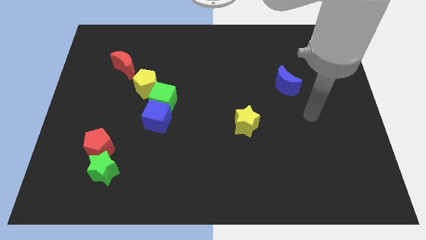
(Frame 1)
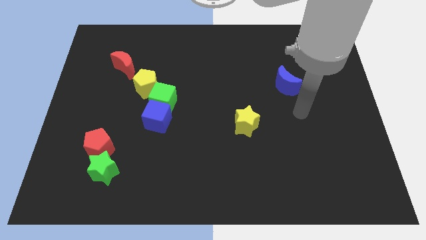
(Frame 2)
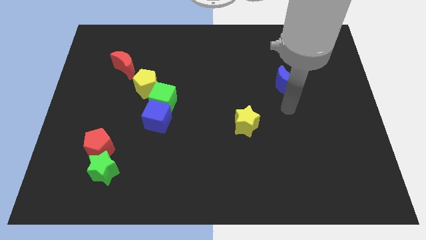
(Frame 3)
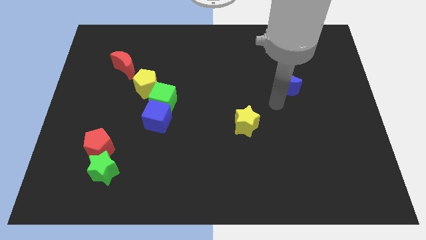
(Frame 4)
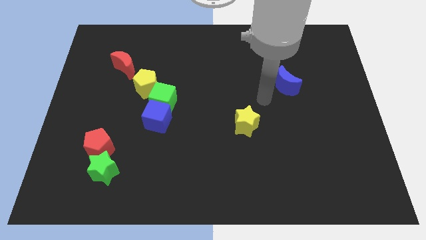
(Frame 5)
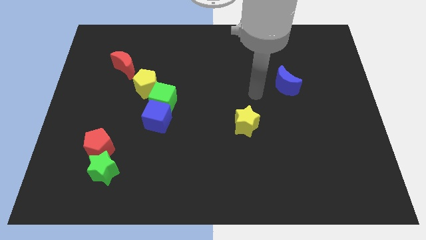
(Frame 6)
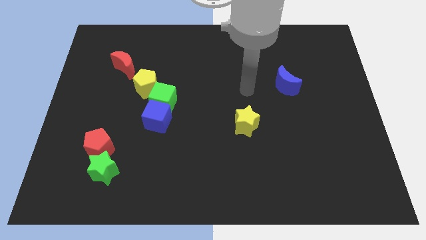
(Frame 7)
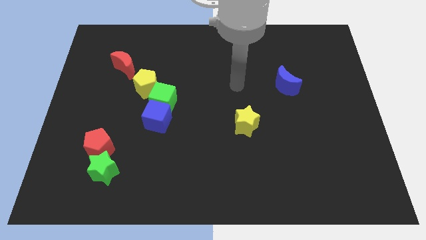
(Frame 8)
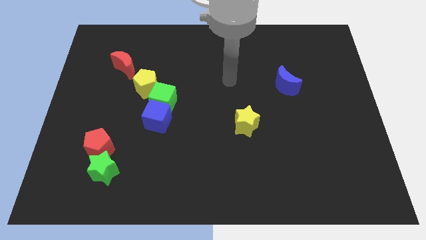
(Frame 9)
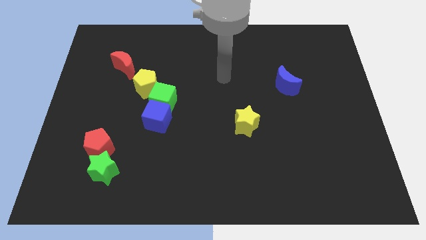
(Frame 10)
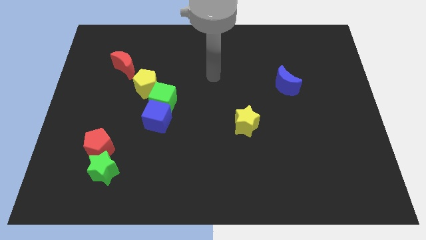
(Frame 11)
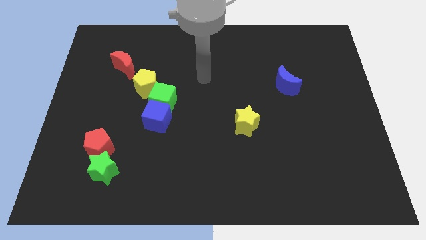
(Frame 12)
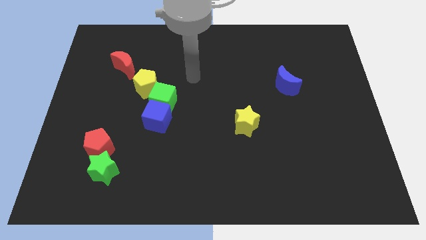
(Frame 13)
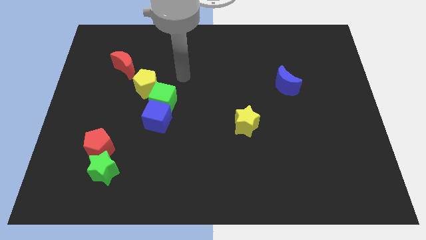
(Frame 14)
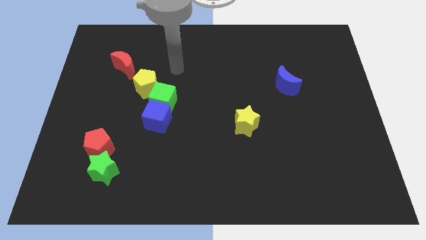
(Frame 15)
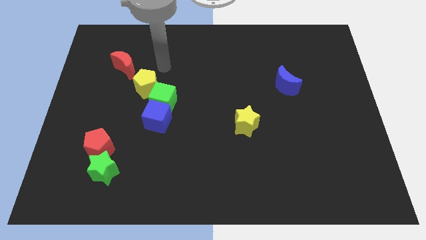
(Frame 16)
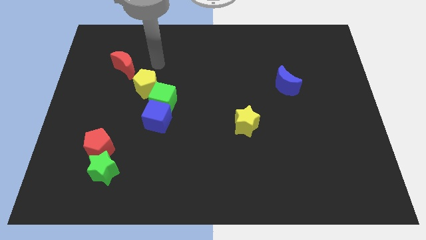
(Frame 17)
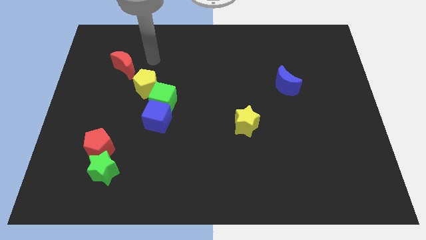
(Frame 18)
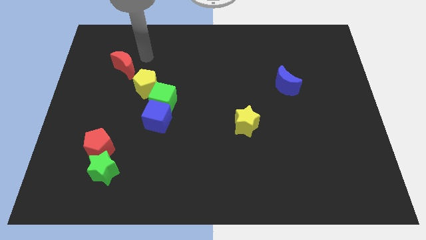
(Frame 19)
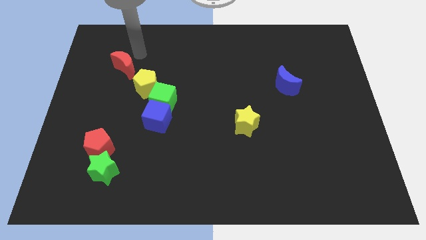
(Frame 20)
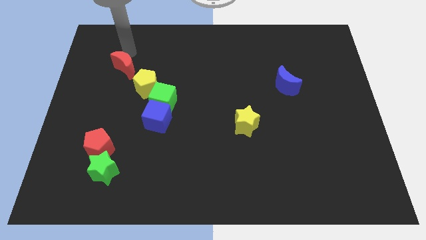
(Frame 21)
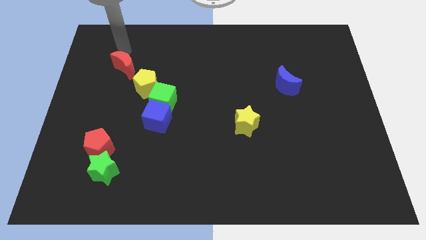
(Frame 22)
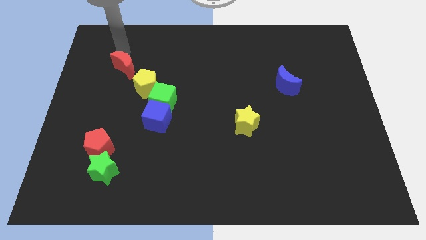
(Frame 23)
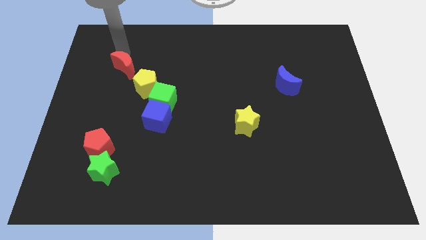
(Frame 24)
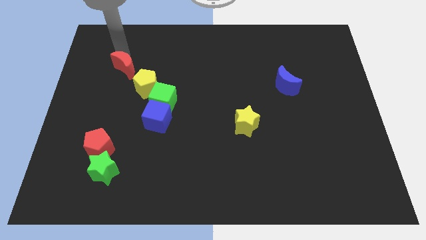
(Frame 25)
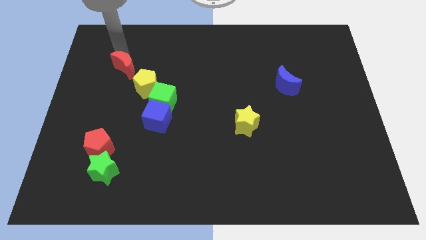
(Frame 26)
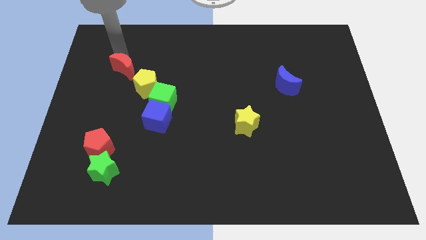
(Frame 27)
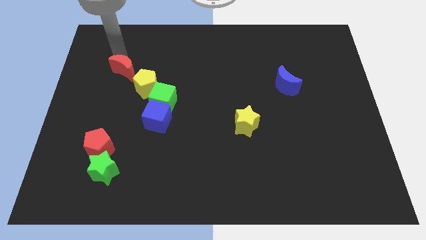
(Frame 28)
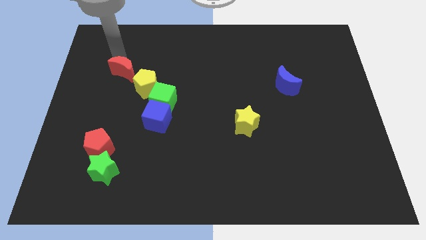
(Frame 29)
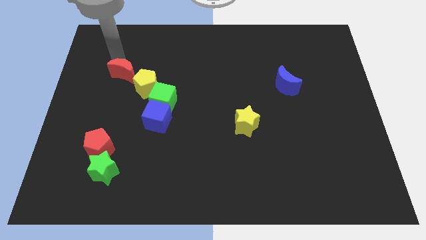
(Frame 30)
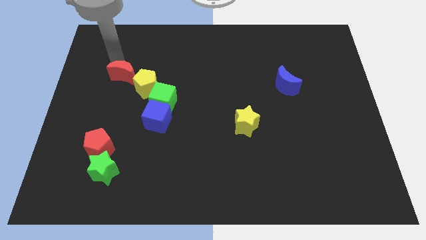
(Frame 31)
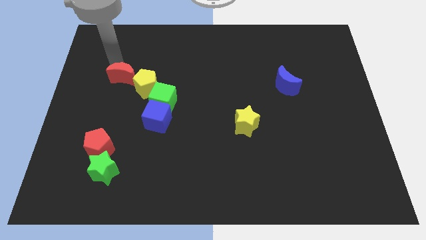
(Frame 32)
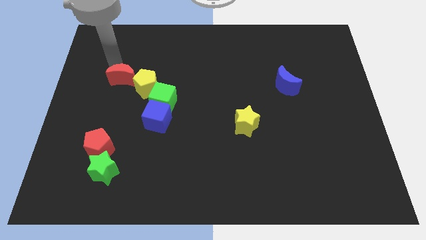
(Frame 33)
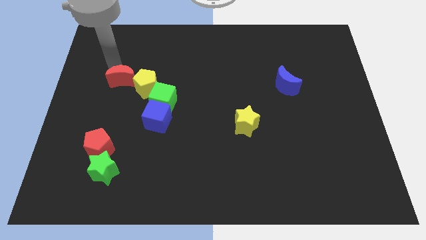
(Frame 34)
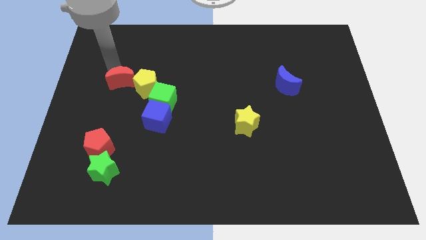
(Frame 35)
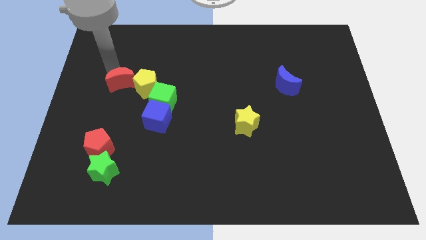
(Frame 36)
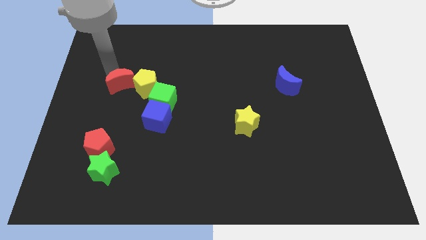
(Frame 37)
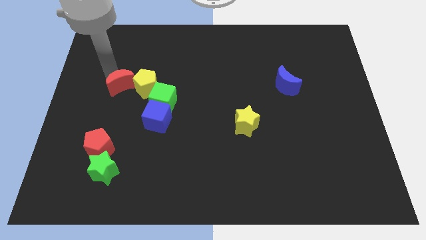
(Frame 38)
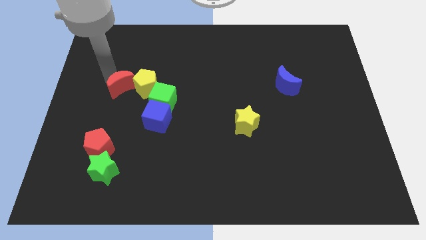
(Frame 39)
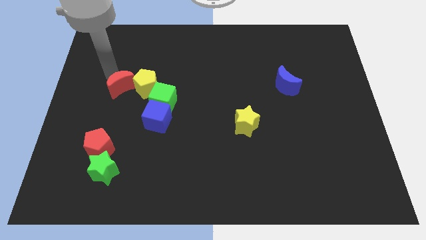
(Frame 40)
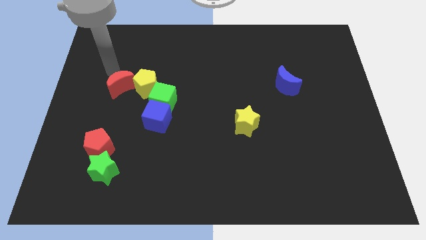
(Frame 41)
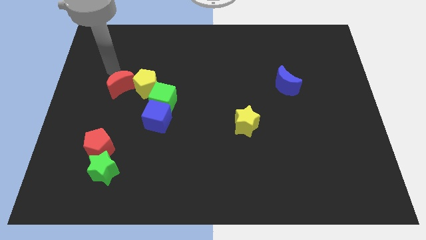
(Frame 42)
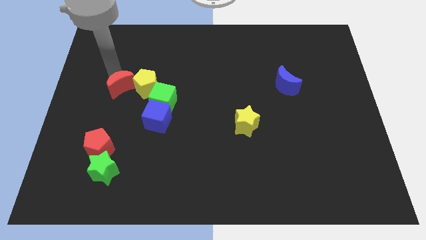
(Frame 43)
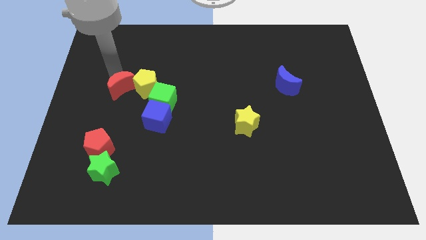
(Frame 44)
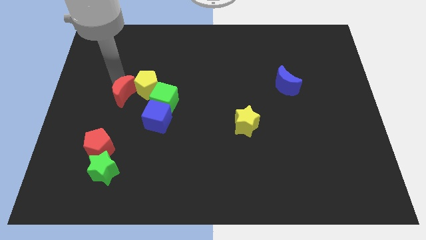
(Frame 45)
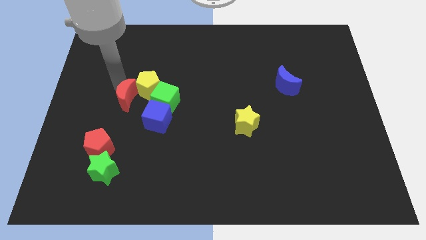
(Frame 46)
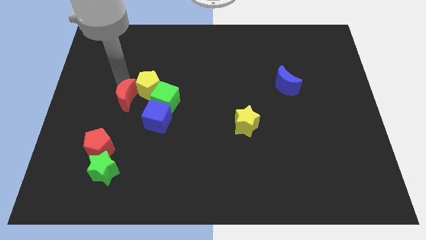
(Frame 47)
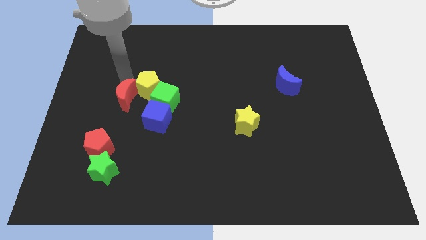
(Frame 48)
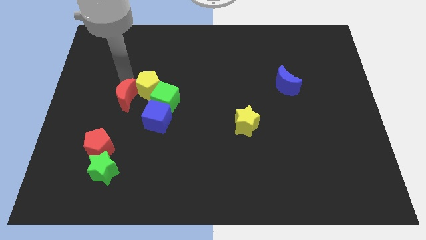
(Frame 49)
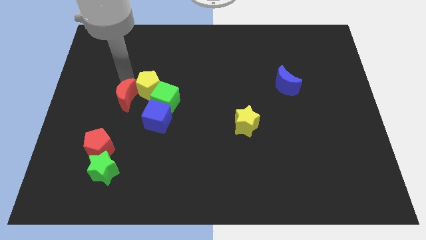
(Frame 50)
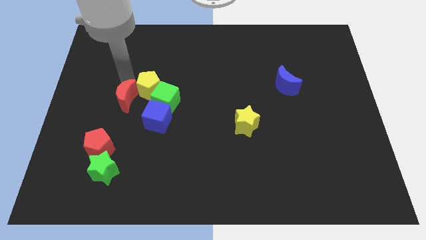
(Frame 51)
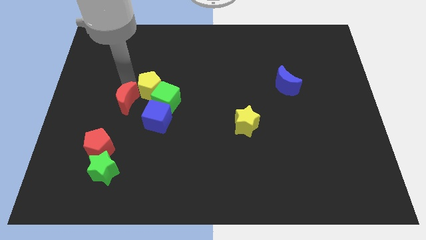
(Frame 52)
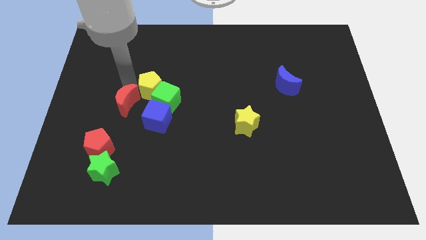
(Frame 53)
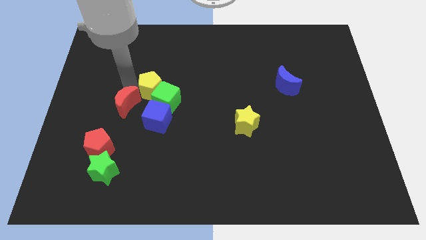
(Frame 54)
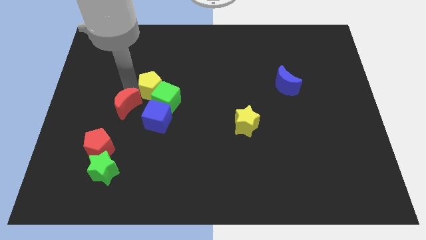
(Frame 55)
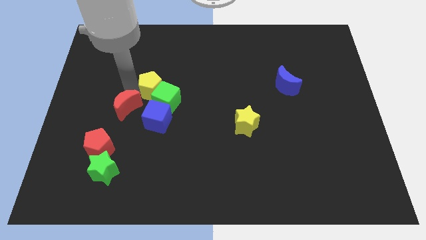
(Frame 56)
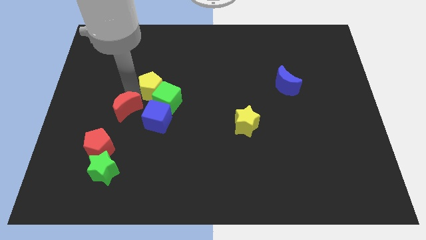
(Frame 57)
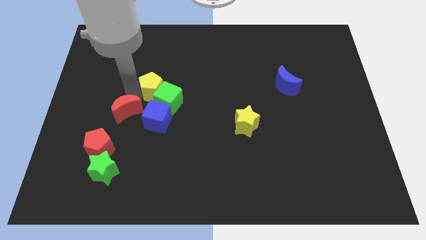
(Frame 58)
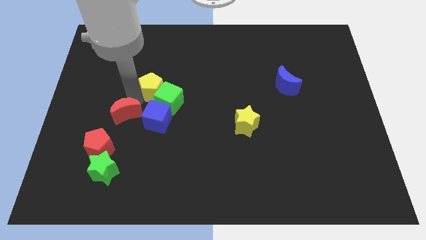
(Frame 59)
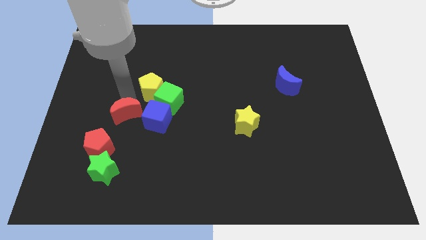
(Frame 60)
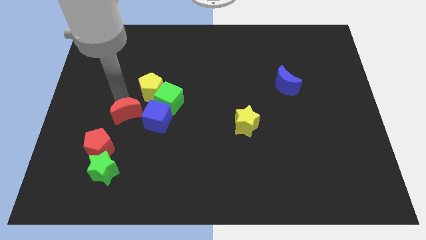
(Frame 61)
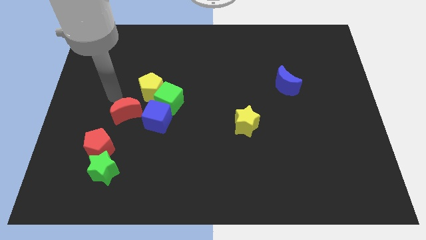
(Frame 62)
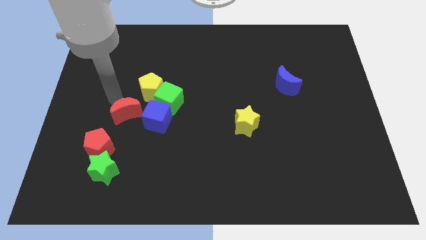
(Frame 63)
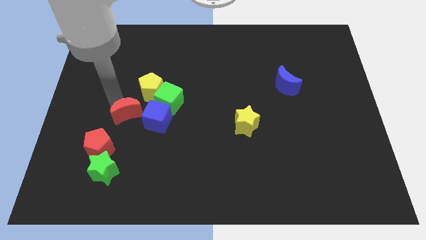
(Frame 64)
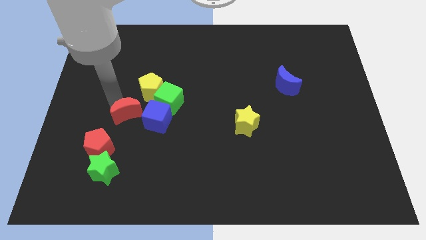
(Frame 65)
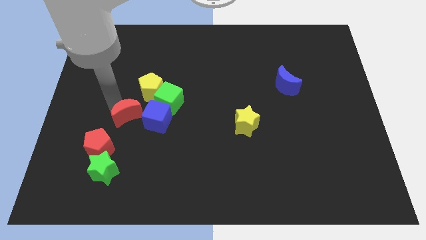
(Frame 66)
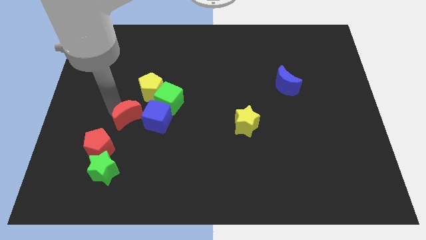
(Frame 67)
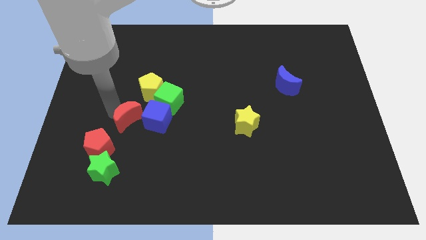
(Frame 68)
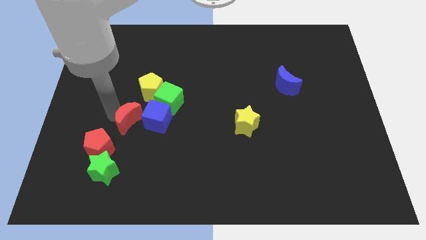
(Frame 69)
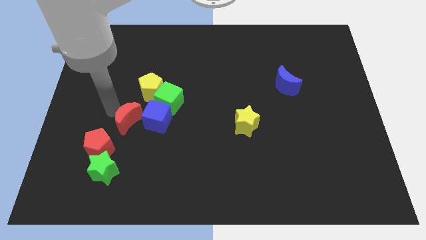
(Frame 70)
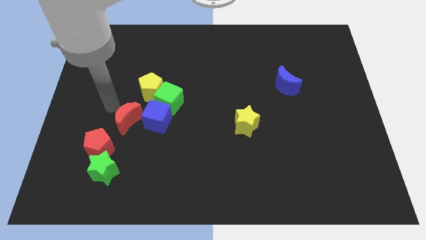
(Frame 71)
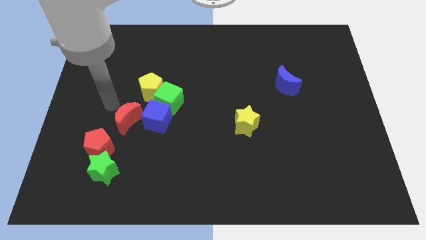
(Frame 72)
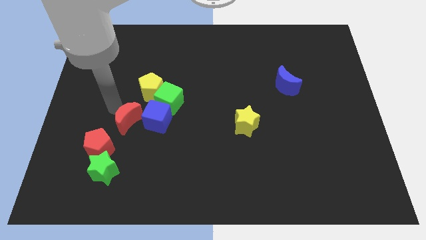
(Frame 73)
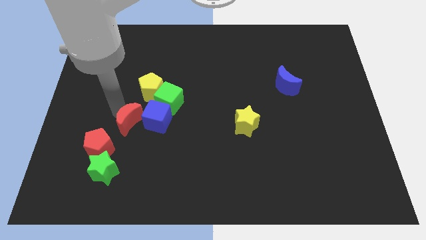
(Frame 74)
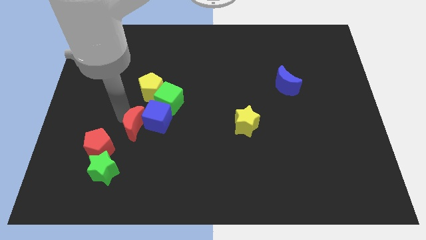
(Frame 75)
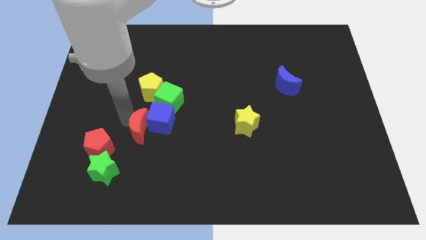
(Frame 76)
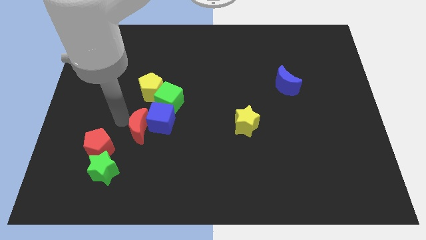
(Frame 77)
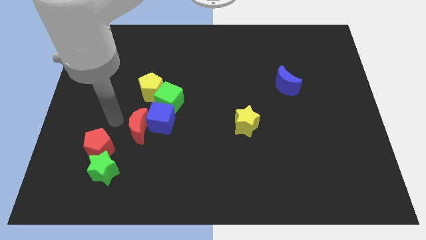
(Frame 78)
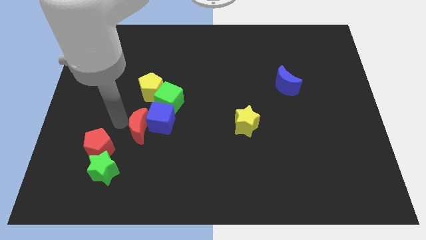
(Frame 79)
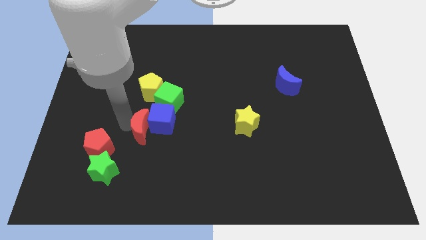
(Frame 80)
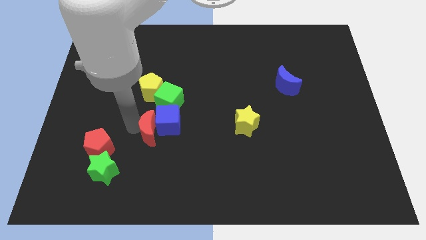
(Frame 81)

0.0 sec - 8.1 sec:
put the red moon to the bottom side of the green cube

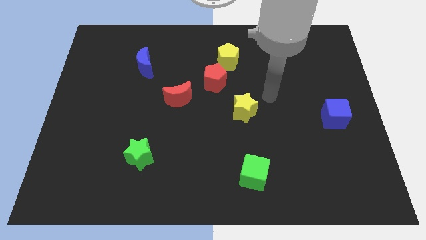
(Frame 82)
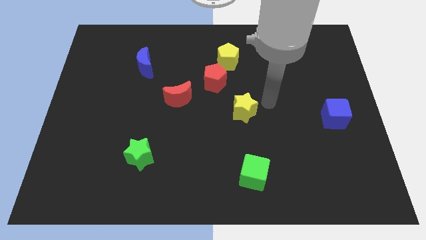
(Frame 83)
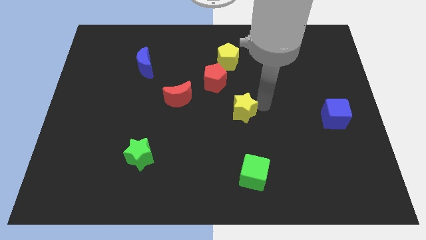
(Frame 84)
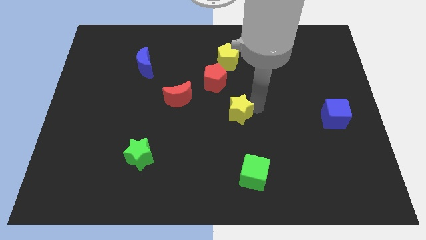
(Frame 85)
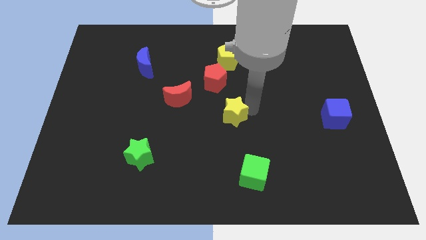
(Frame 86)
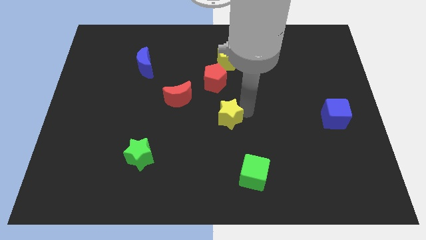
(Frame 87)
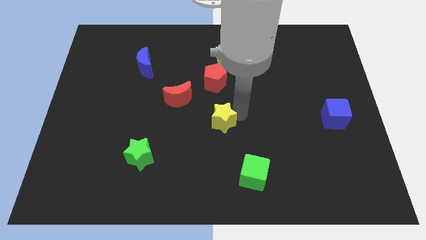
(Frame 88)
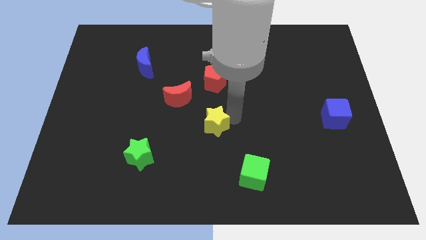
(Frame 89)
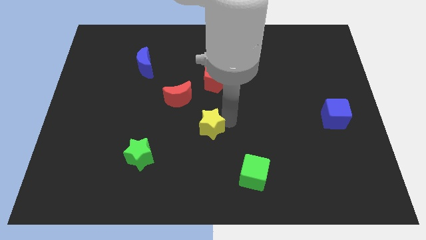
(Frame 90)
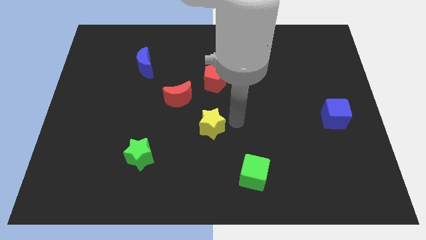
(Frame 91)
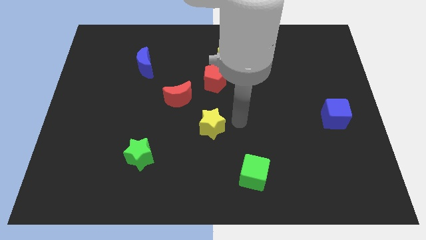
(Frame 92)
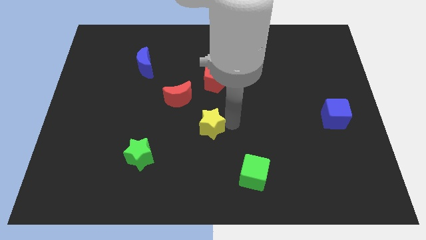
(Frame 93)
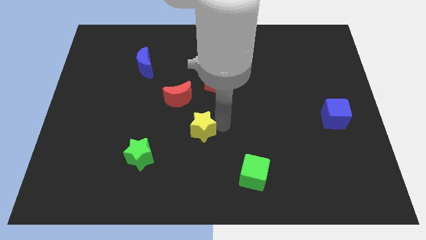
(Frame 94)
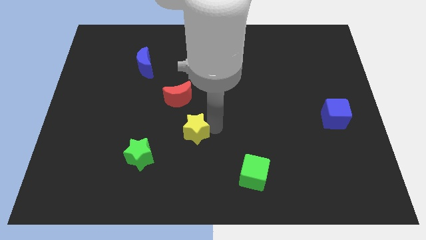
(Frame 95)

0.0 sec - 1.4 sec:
put the yellow star below the red moon
